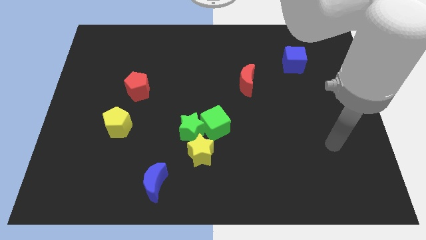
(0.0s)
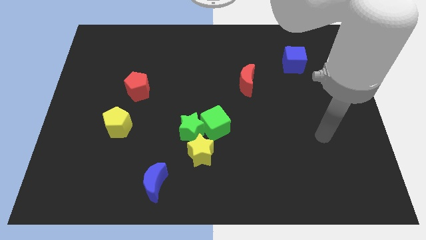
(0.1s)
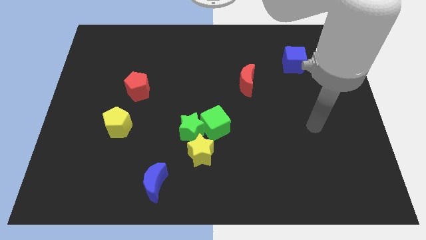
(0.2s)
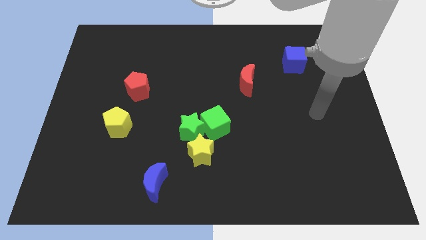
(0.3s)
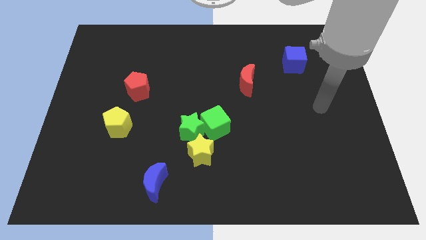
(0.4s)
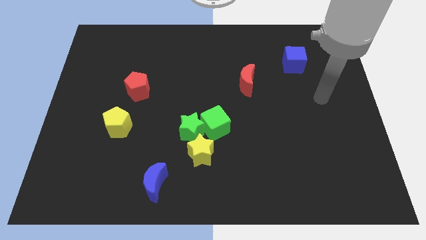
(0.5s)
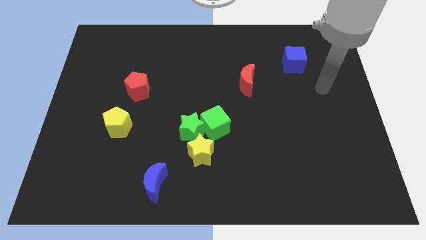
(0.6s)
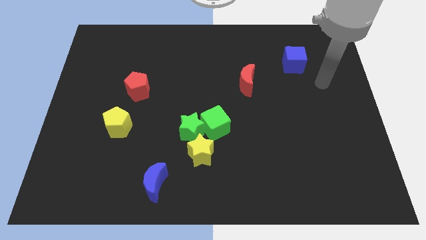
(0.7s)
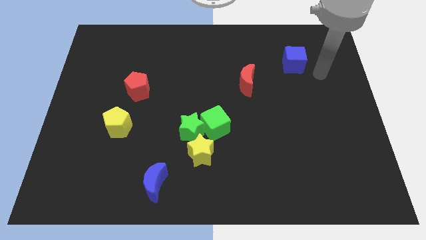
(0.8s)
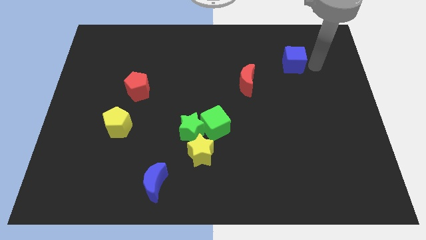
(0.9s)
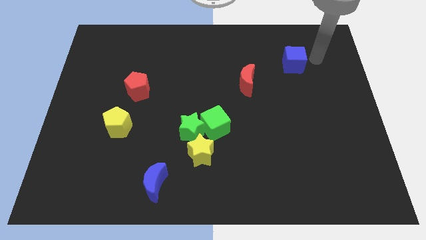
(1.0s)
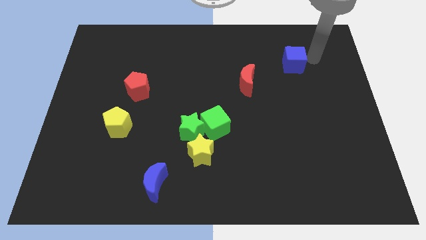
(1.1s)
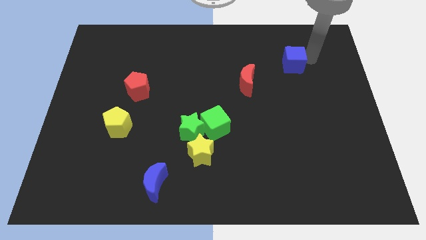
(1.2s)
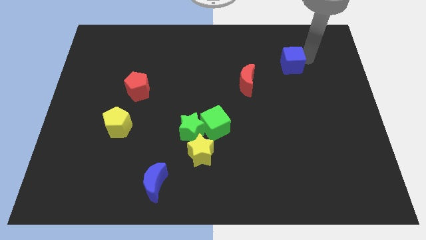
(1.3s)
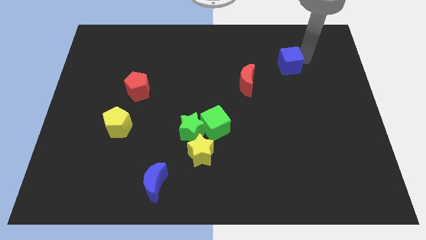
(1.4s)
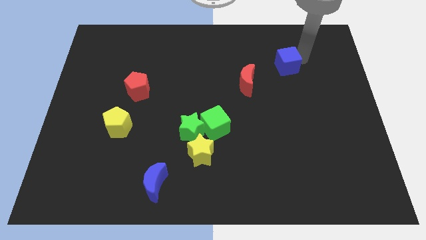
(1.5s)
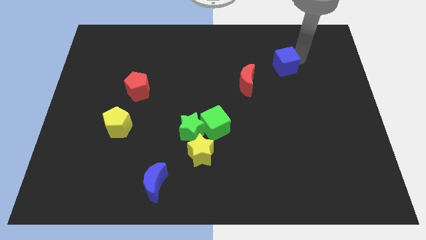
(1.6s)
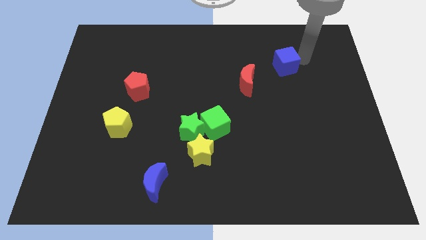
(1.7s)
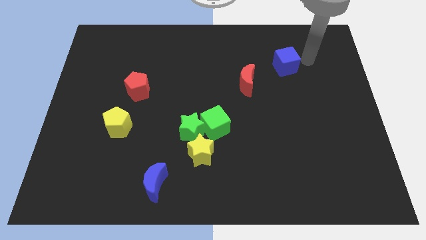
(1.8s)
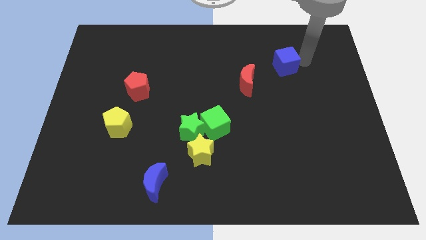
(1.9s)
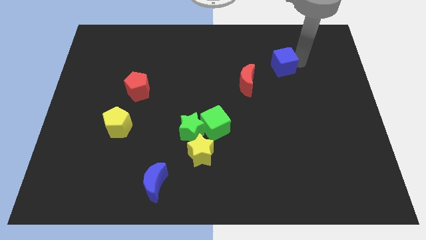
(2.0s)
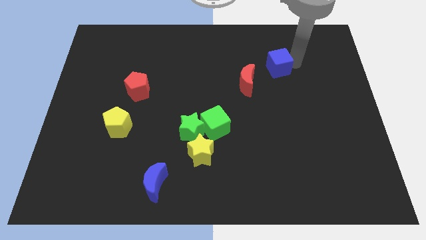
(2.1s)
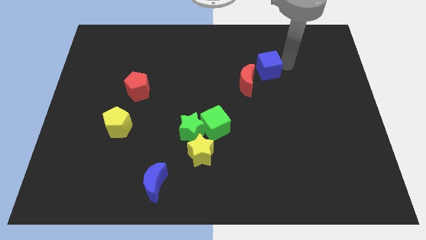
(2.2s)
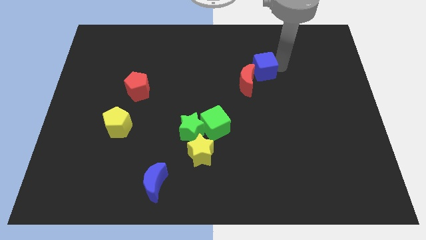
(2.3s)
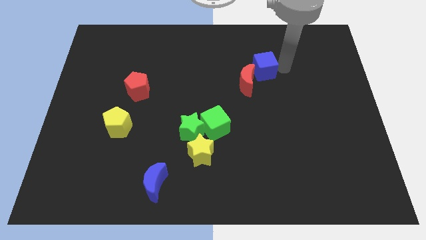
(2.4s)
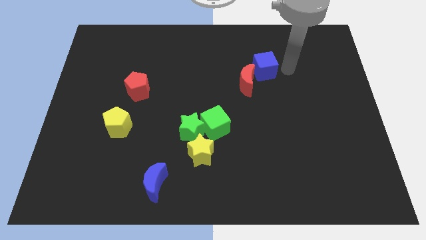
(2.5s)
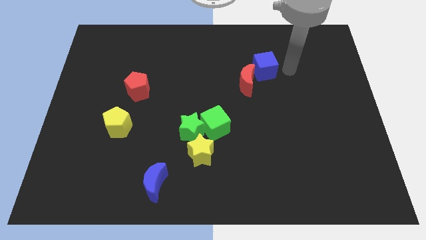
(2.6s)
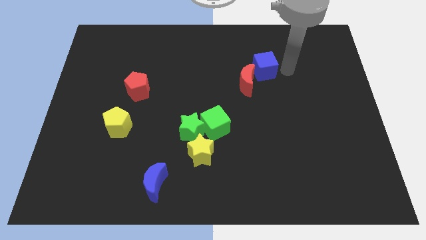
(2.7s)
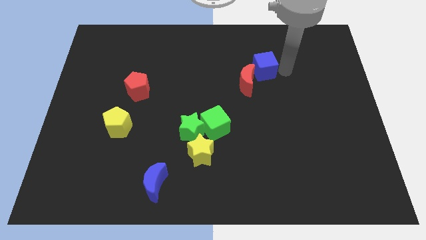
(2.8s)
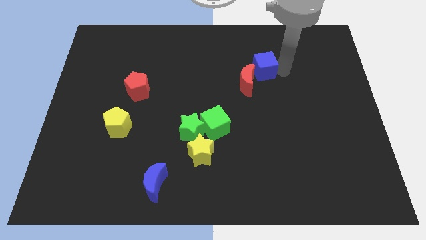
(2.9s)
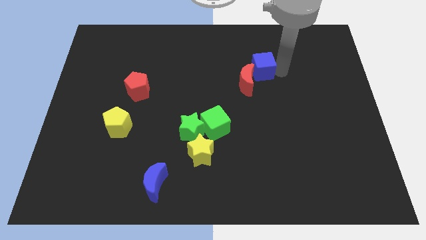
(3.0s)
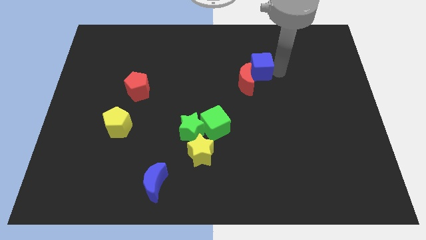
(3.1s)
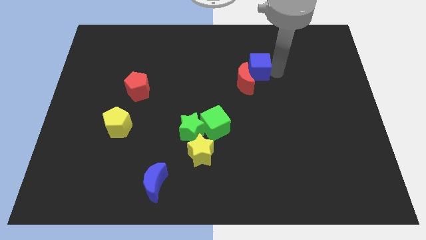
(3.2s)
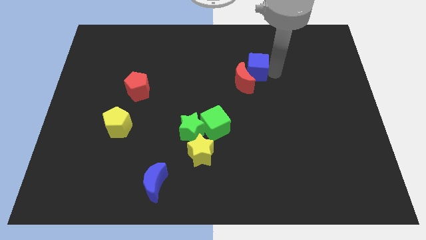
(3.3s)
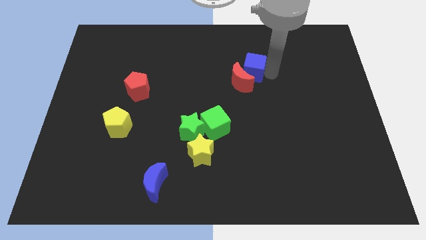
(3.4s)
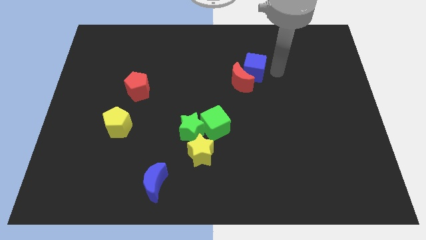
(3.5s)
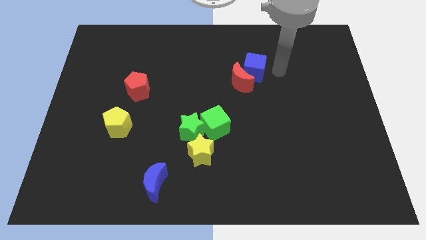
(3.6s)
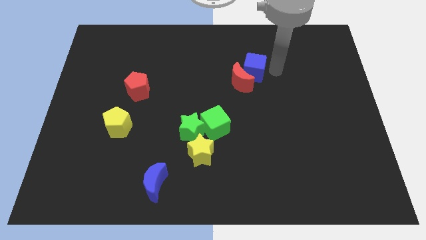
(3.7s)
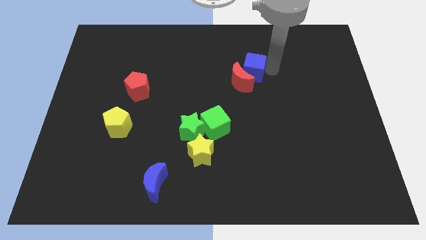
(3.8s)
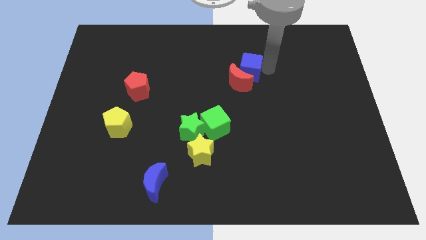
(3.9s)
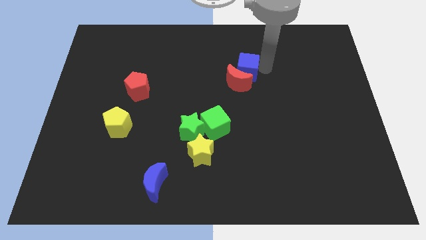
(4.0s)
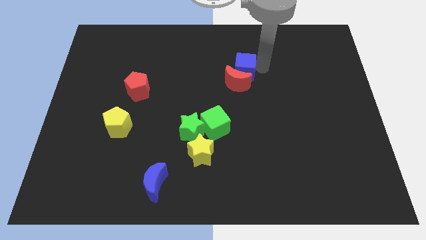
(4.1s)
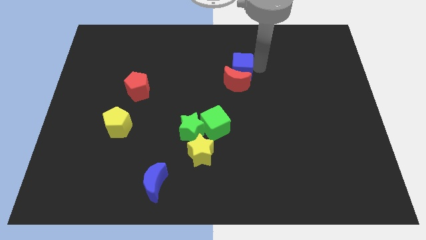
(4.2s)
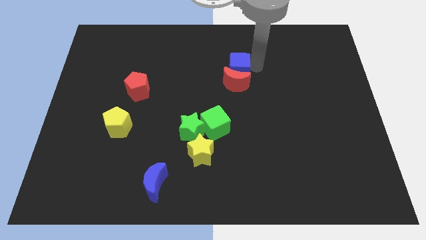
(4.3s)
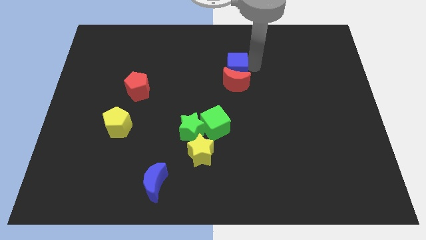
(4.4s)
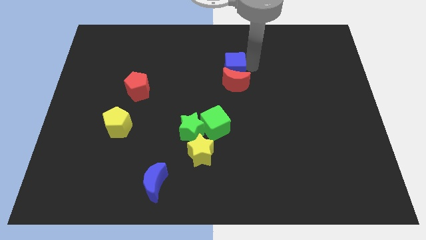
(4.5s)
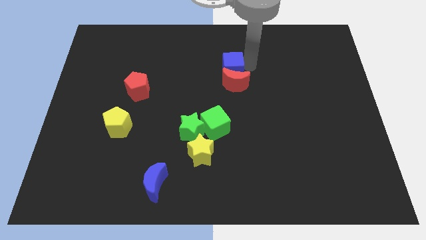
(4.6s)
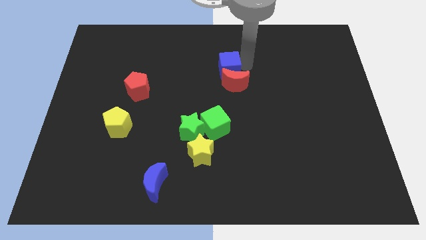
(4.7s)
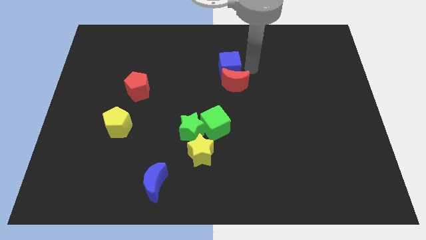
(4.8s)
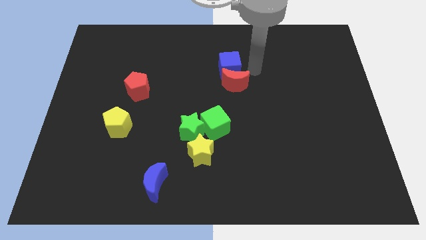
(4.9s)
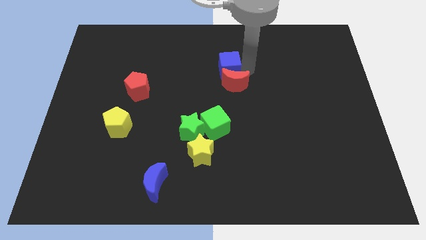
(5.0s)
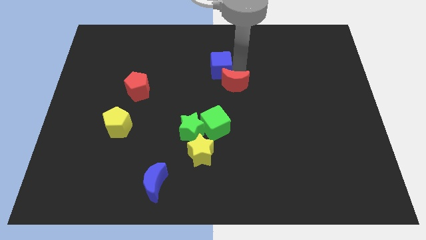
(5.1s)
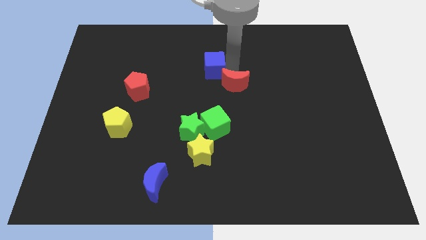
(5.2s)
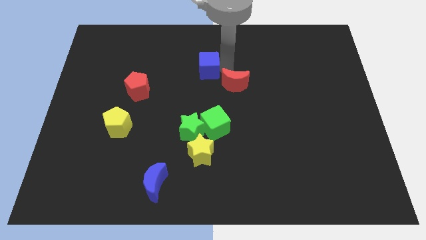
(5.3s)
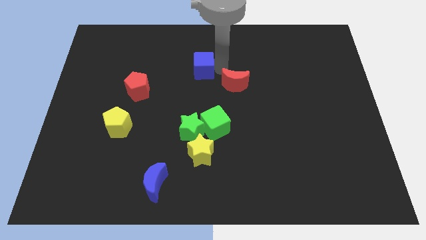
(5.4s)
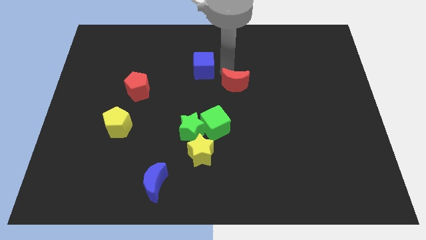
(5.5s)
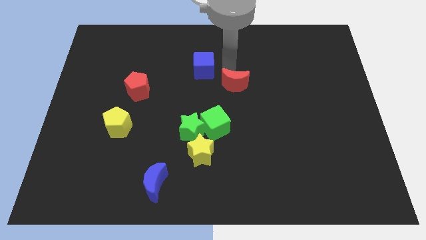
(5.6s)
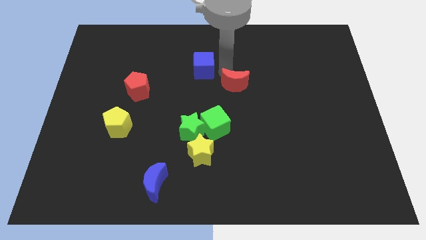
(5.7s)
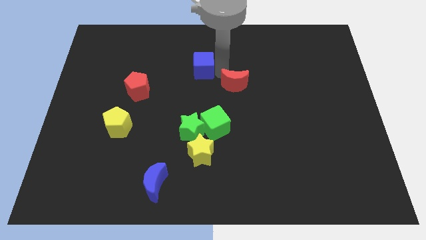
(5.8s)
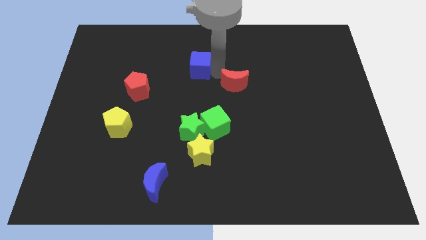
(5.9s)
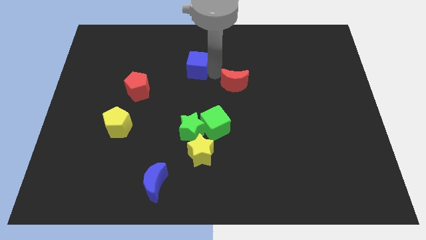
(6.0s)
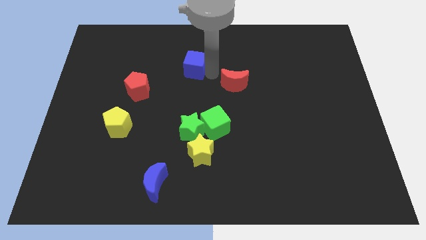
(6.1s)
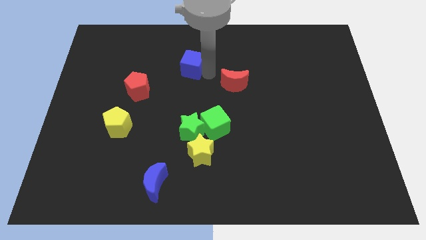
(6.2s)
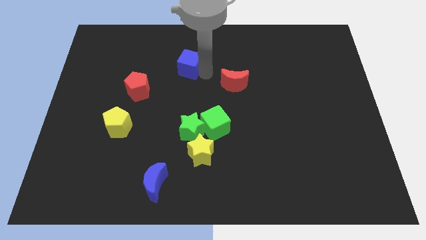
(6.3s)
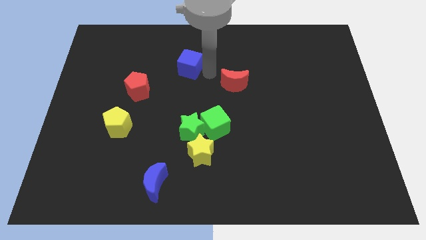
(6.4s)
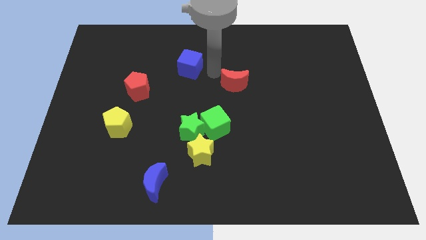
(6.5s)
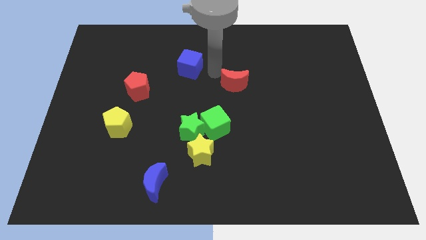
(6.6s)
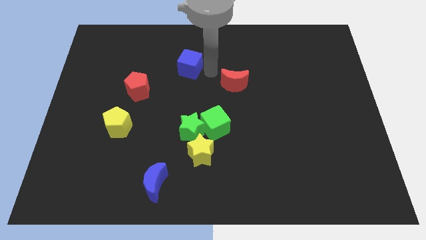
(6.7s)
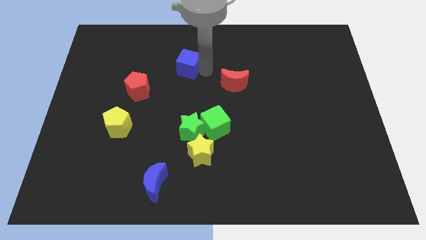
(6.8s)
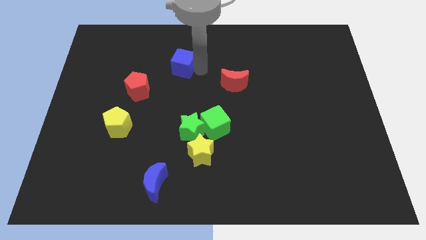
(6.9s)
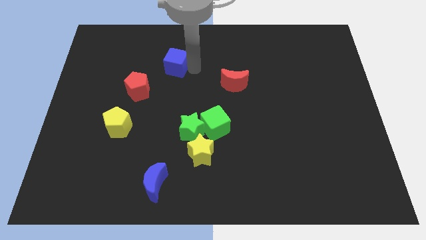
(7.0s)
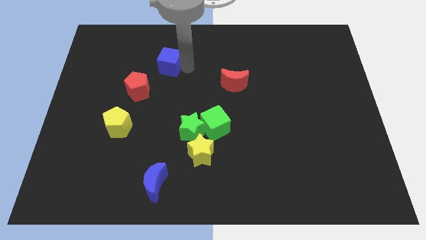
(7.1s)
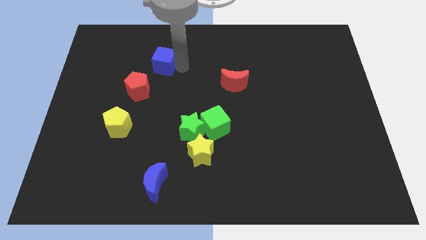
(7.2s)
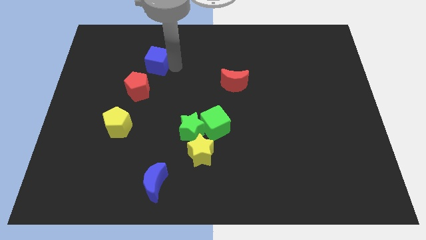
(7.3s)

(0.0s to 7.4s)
move the blue cube to the top side of the red pentagon
